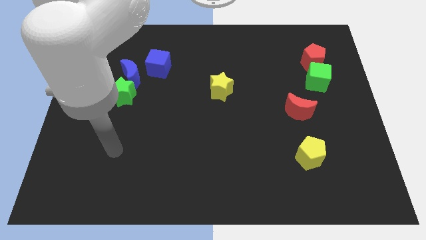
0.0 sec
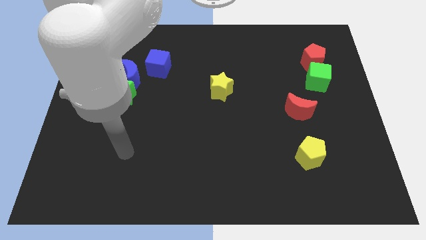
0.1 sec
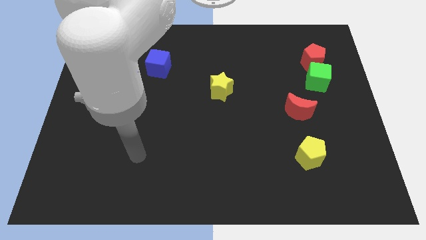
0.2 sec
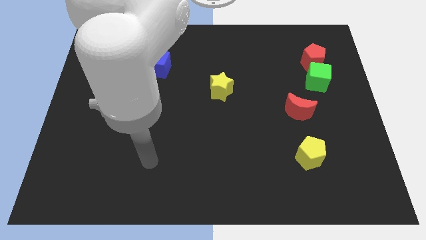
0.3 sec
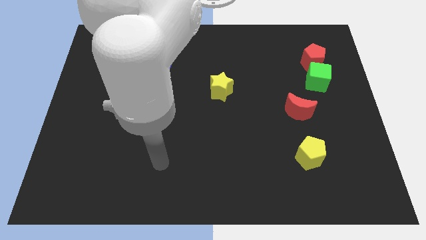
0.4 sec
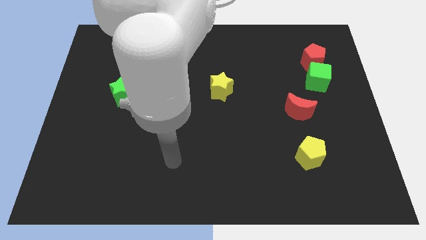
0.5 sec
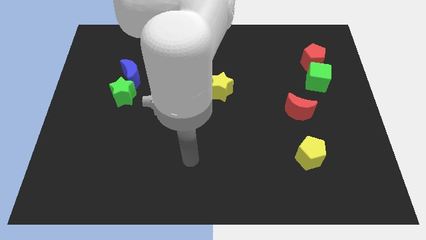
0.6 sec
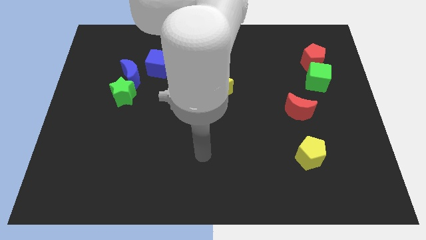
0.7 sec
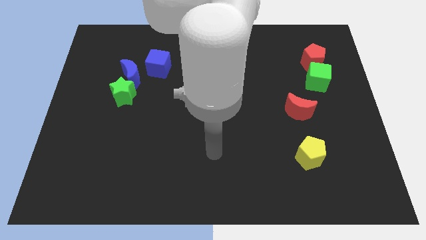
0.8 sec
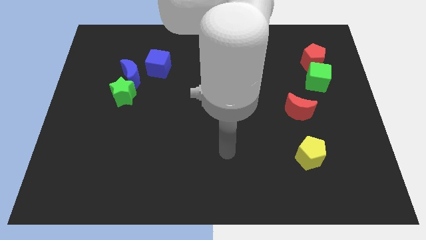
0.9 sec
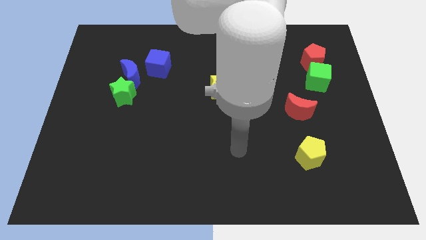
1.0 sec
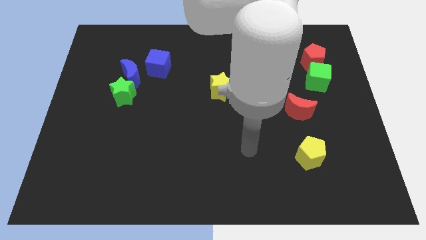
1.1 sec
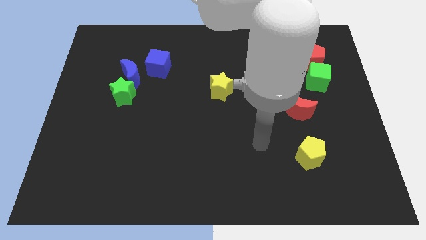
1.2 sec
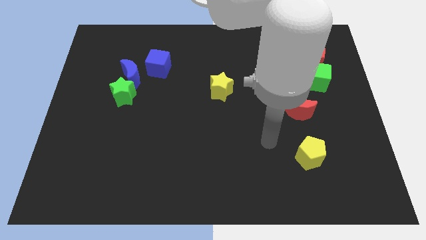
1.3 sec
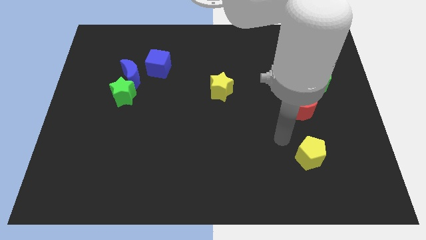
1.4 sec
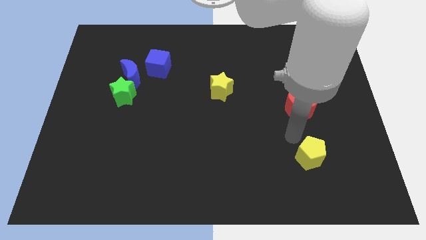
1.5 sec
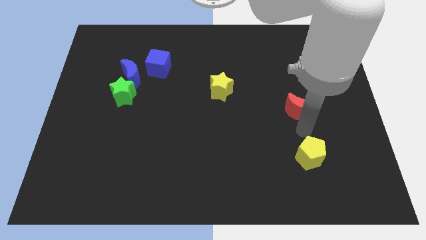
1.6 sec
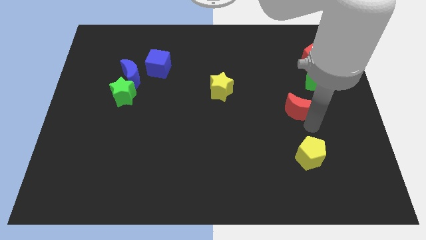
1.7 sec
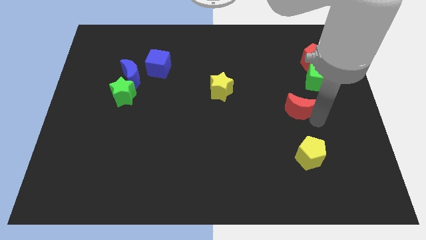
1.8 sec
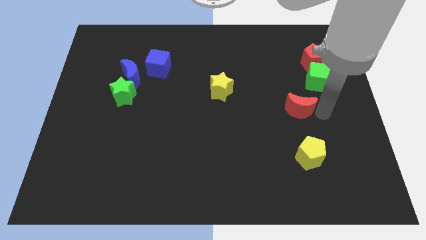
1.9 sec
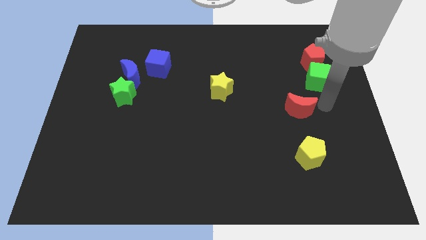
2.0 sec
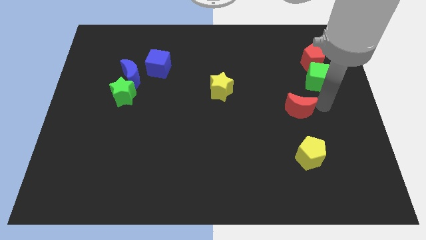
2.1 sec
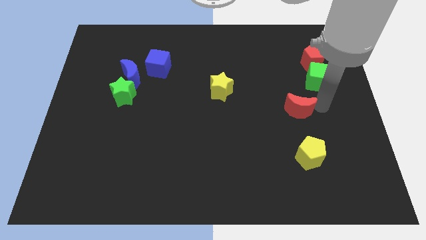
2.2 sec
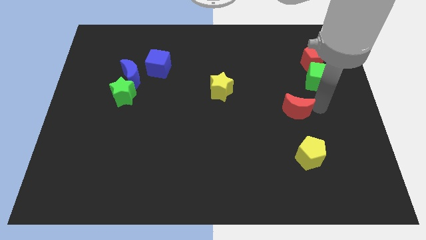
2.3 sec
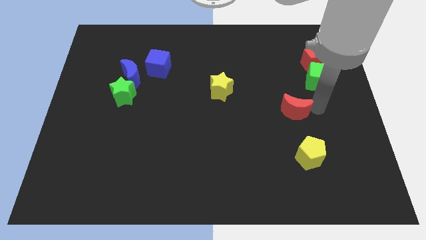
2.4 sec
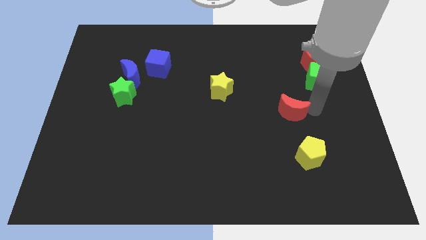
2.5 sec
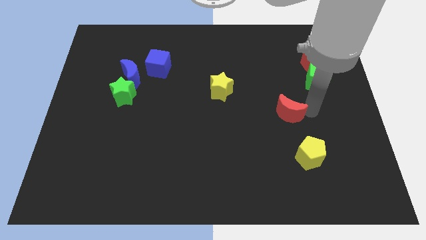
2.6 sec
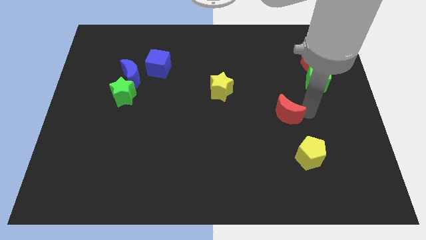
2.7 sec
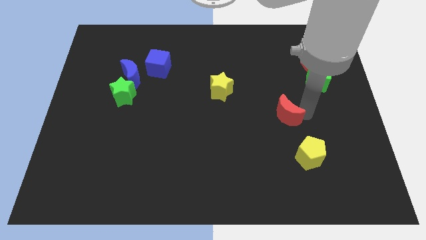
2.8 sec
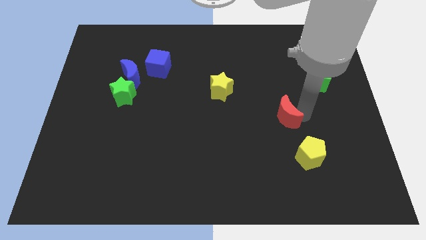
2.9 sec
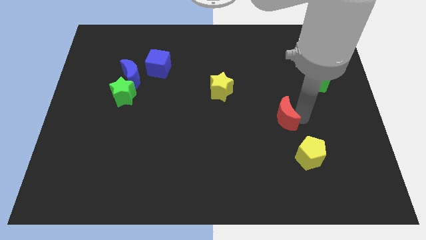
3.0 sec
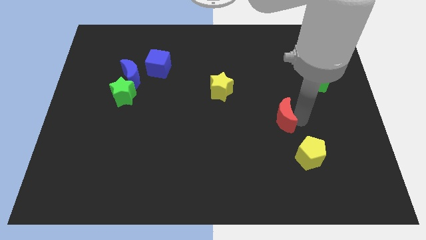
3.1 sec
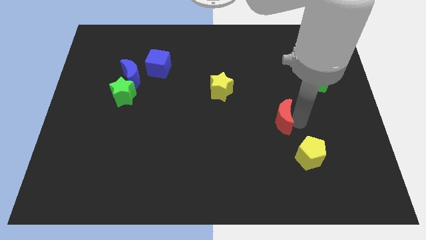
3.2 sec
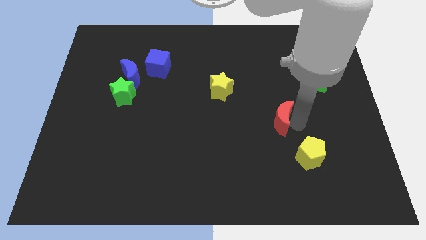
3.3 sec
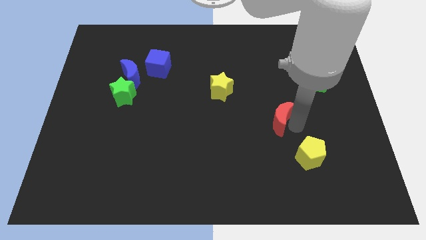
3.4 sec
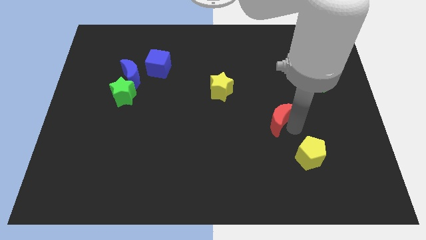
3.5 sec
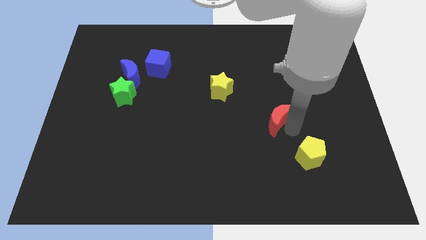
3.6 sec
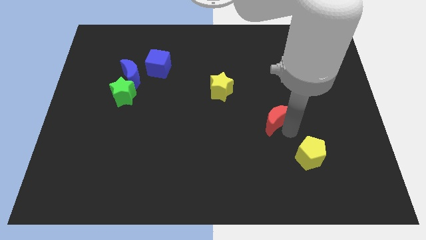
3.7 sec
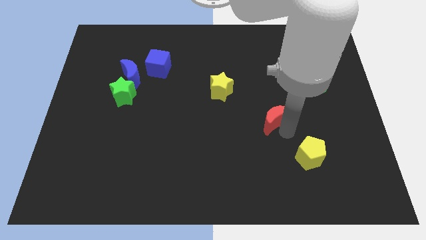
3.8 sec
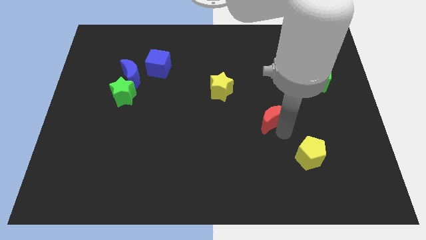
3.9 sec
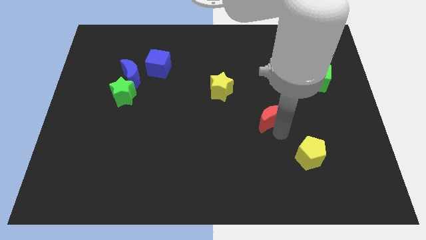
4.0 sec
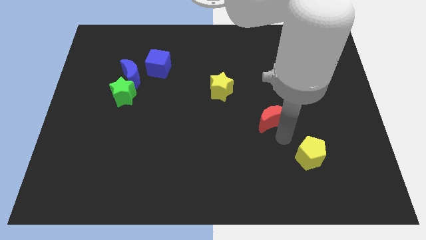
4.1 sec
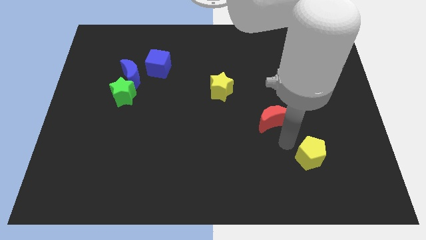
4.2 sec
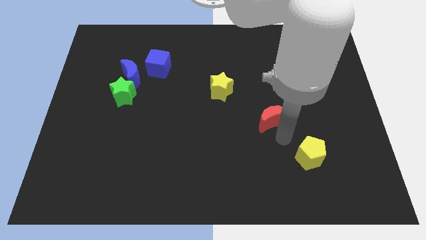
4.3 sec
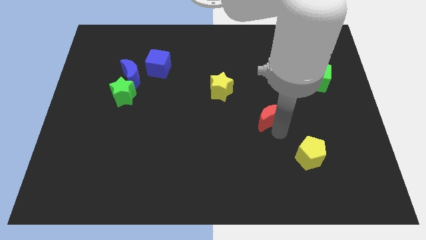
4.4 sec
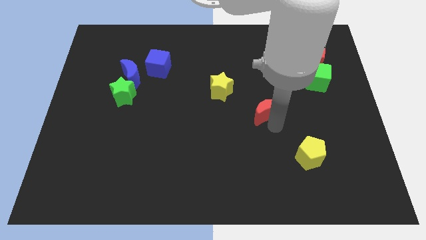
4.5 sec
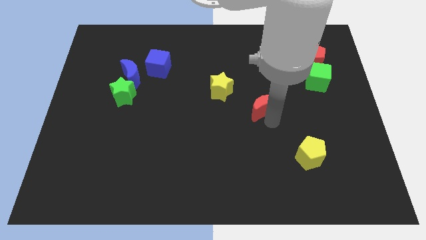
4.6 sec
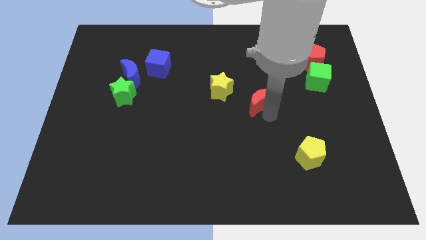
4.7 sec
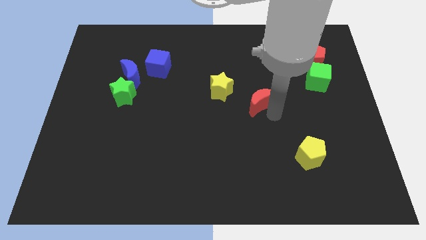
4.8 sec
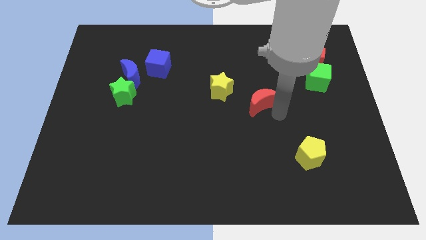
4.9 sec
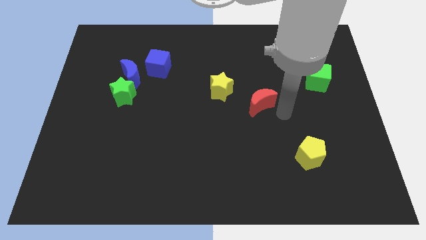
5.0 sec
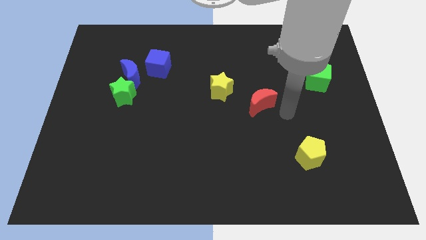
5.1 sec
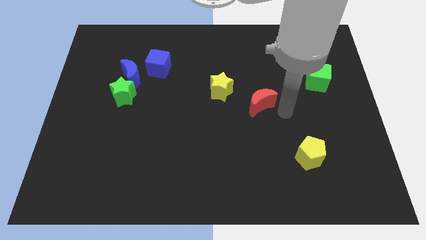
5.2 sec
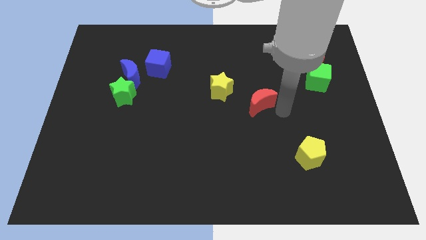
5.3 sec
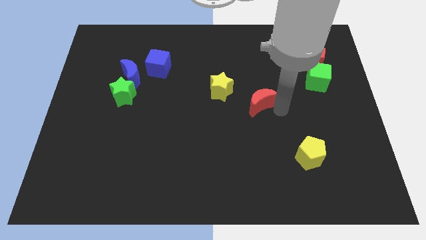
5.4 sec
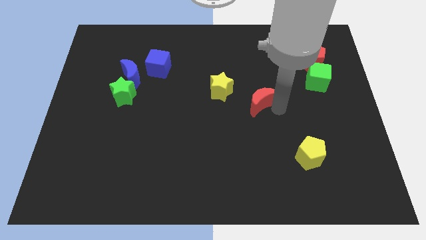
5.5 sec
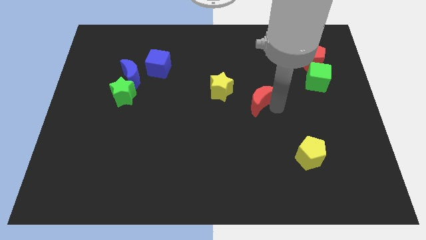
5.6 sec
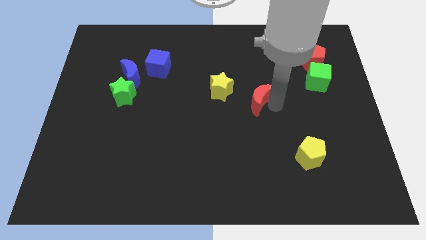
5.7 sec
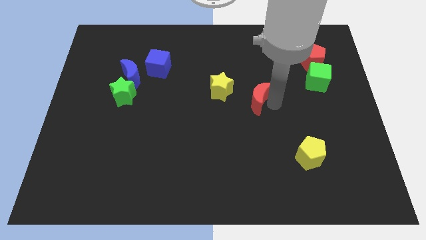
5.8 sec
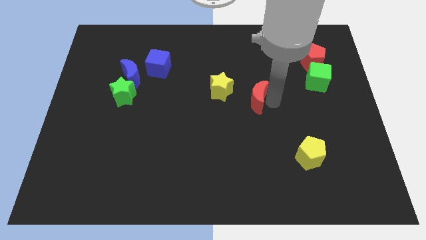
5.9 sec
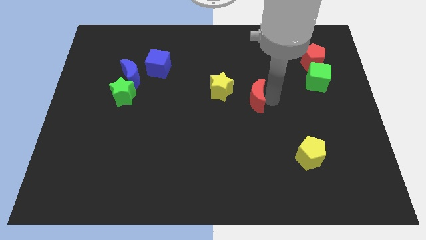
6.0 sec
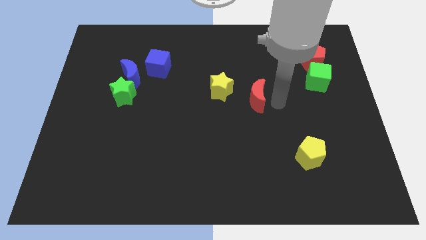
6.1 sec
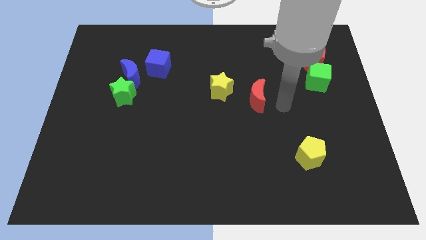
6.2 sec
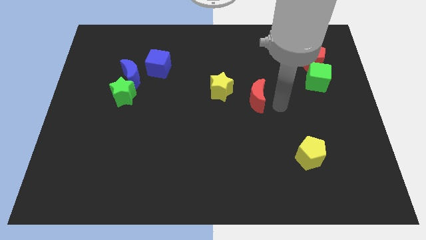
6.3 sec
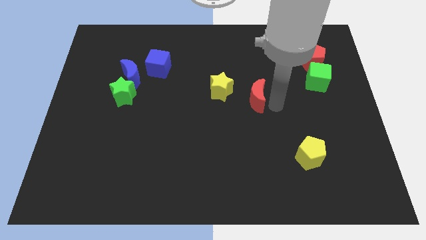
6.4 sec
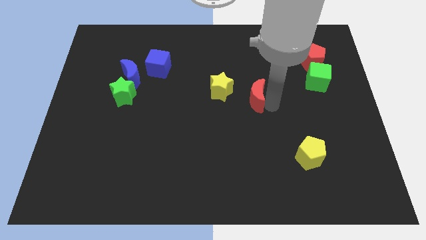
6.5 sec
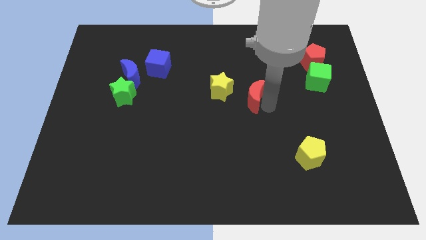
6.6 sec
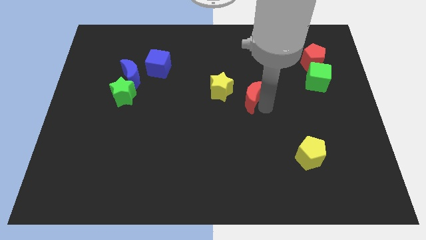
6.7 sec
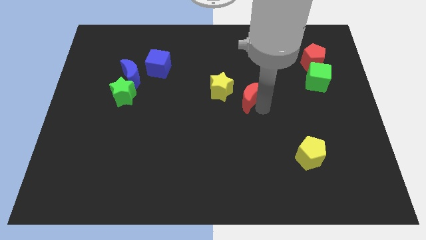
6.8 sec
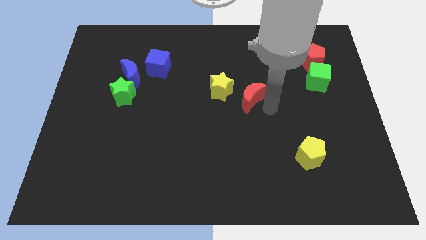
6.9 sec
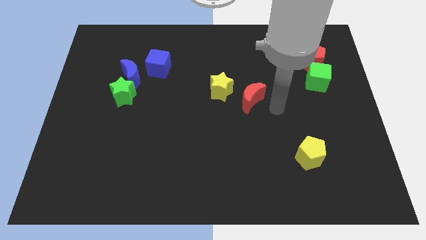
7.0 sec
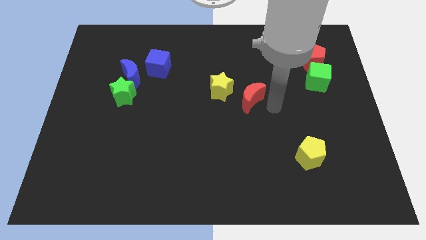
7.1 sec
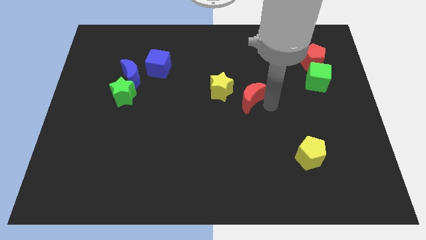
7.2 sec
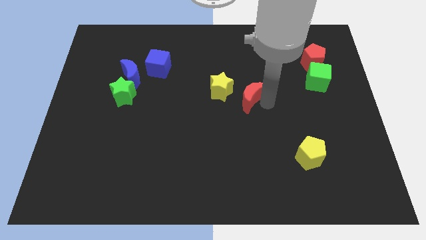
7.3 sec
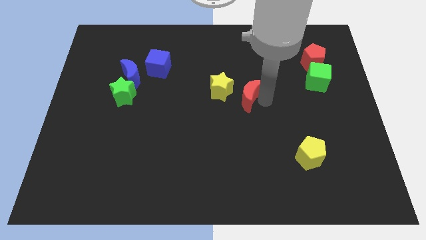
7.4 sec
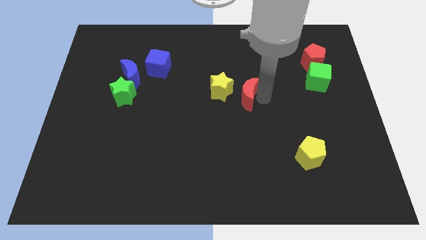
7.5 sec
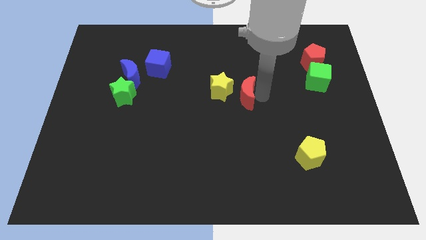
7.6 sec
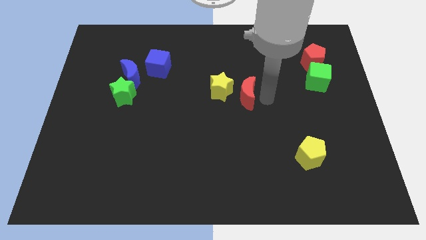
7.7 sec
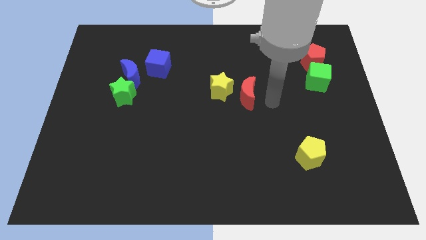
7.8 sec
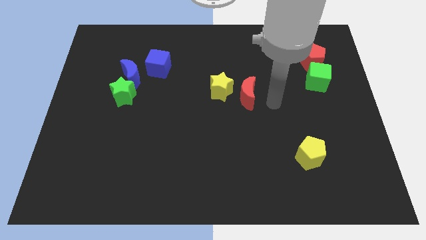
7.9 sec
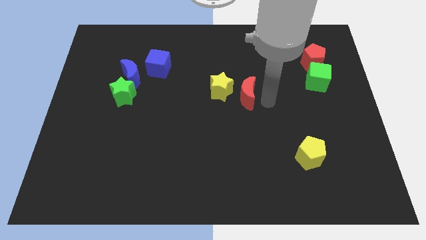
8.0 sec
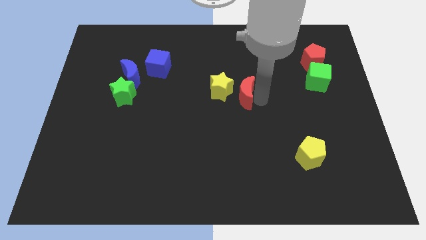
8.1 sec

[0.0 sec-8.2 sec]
slide the red moon next to the yellow star
